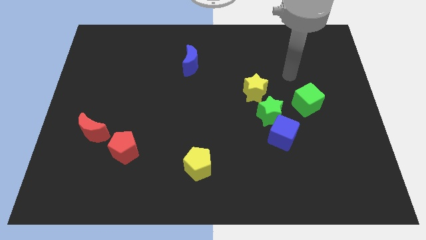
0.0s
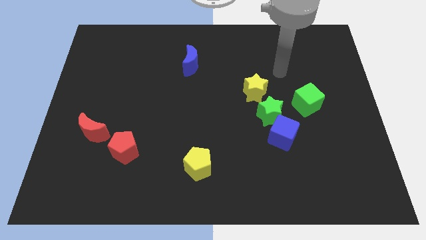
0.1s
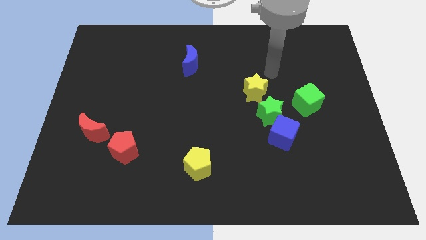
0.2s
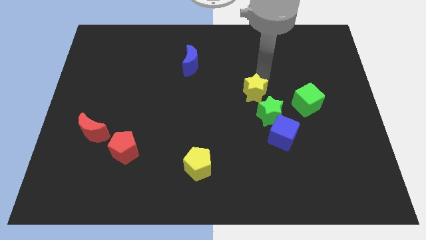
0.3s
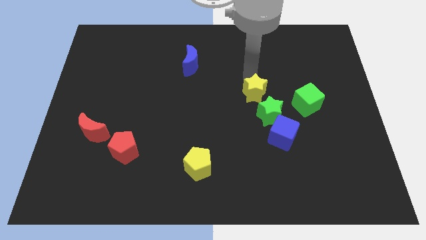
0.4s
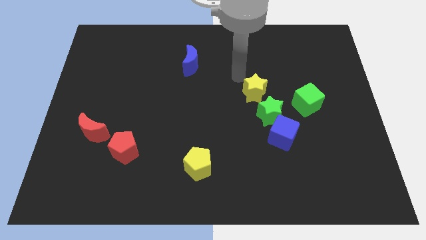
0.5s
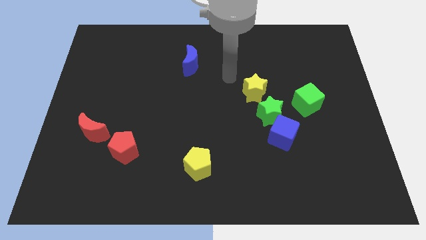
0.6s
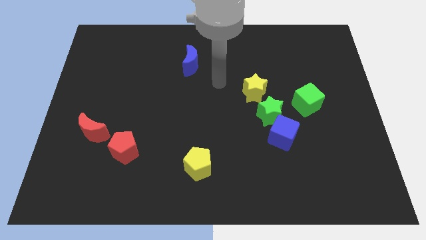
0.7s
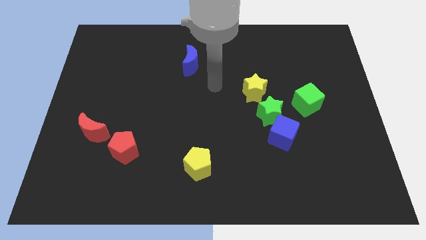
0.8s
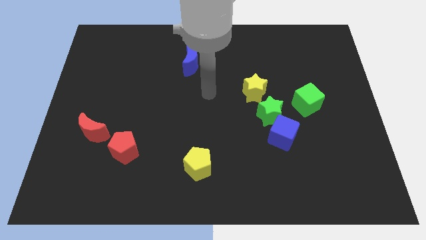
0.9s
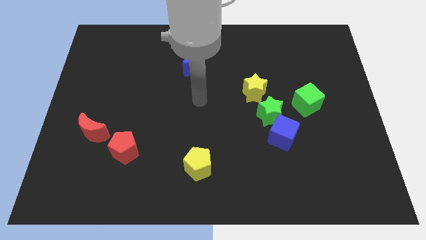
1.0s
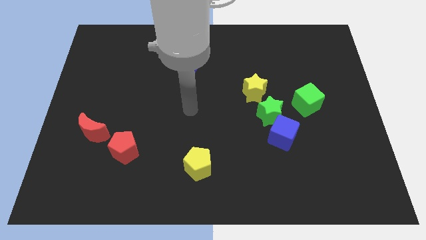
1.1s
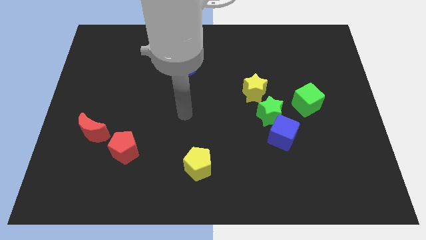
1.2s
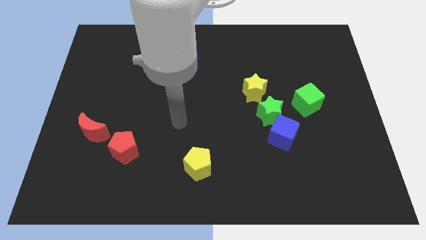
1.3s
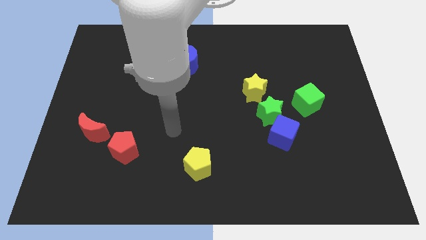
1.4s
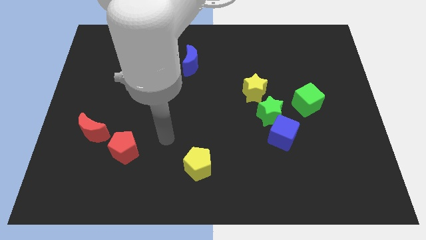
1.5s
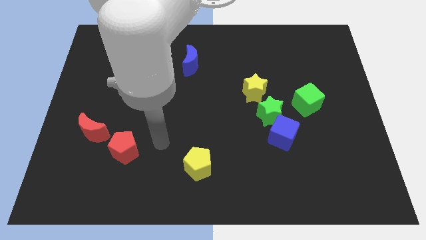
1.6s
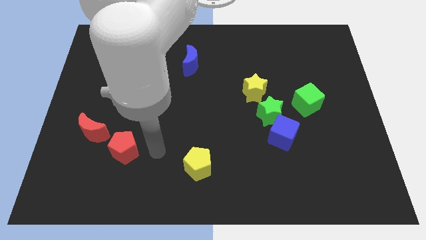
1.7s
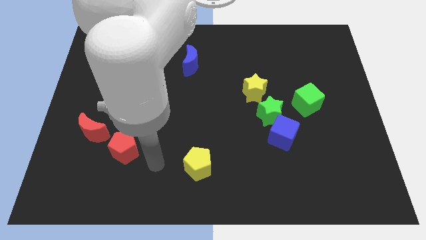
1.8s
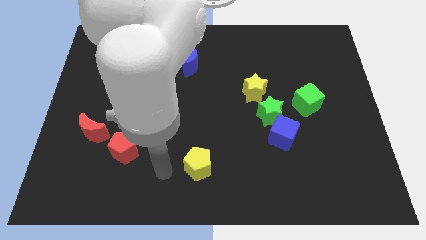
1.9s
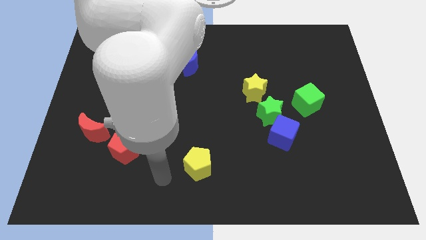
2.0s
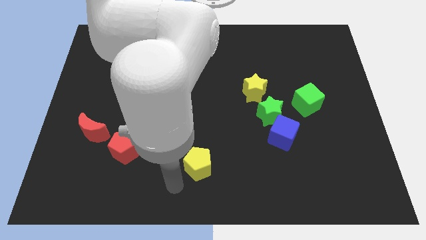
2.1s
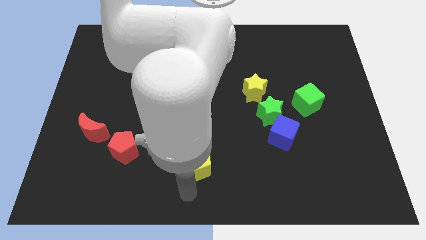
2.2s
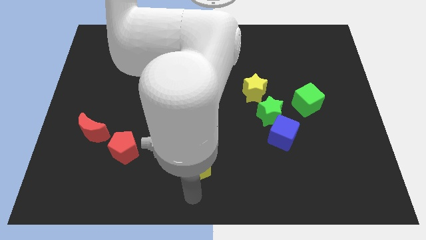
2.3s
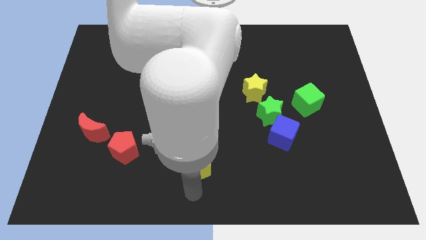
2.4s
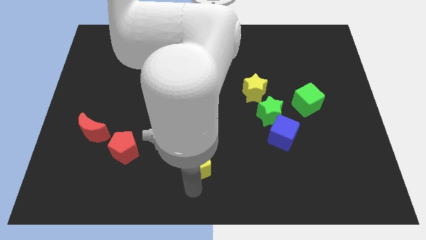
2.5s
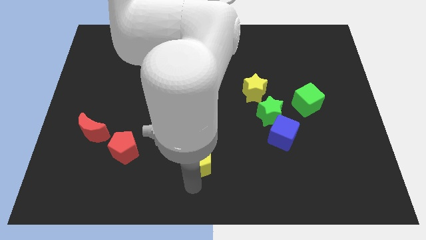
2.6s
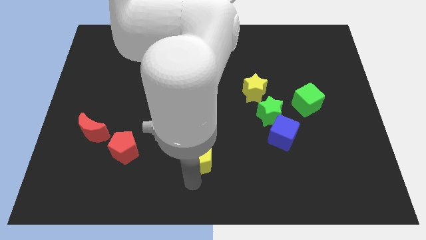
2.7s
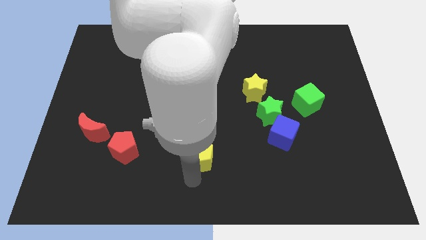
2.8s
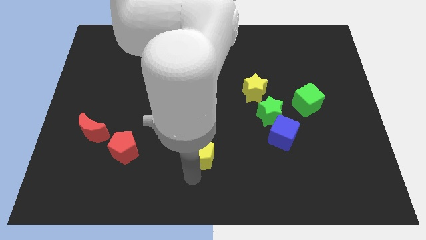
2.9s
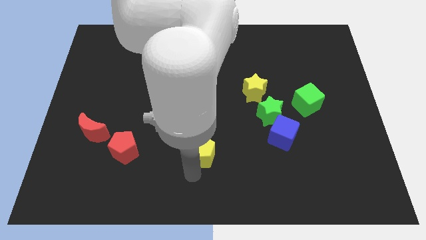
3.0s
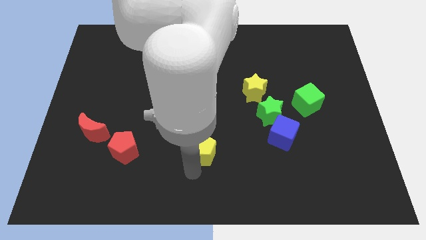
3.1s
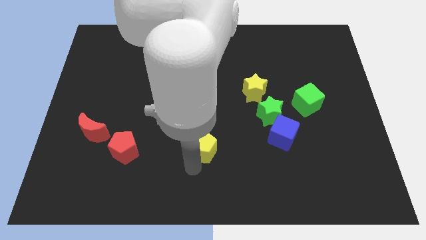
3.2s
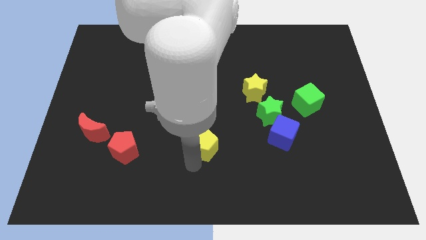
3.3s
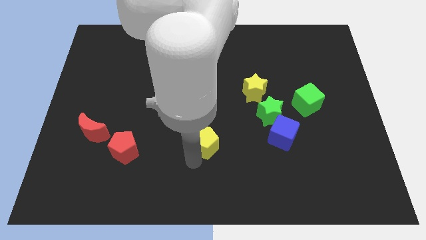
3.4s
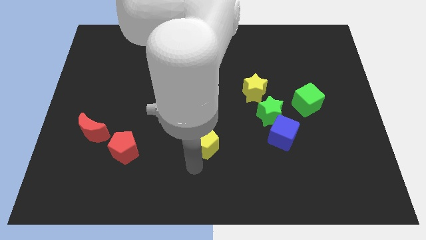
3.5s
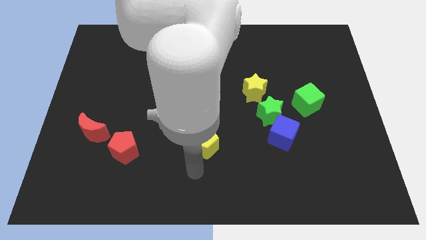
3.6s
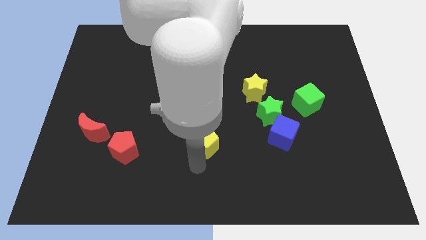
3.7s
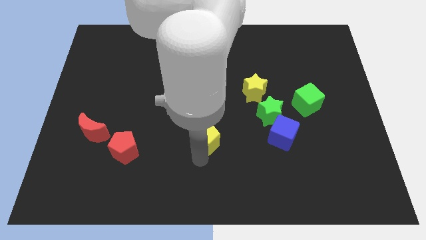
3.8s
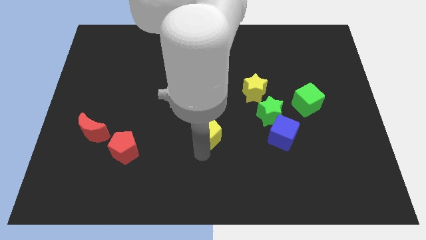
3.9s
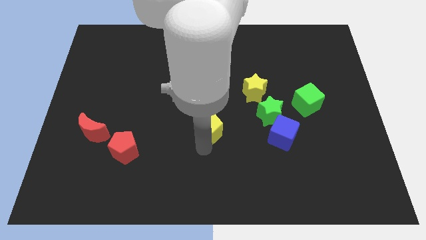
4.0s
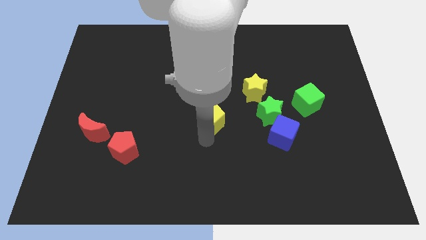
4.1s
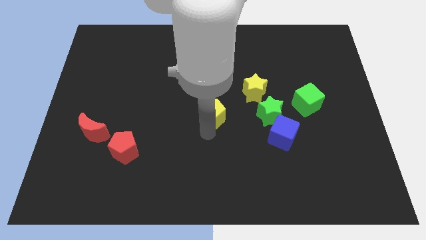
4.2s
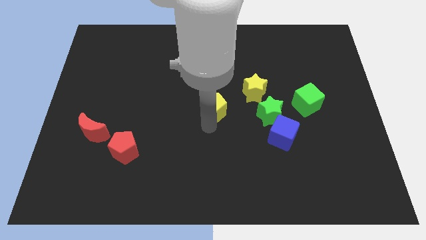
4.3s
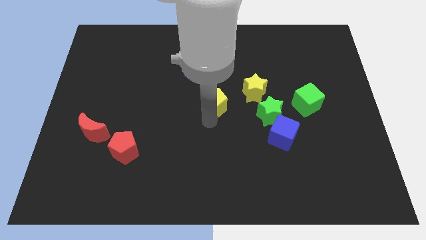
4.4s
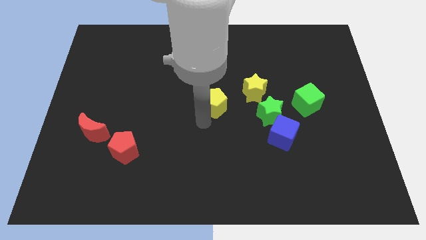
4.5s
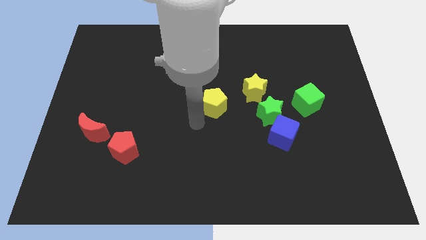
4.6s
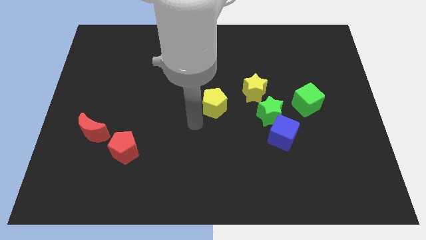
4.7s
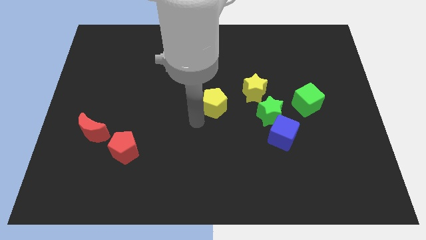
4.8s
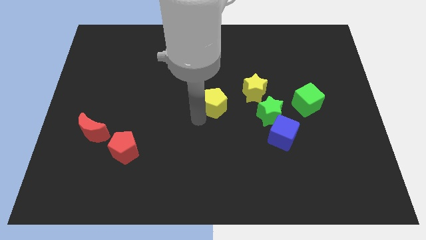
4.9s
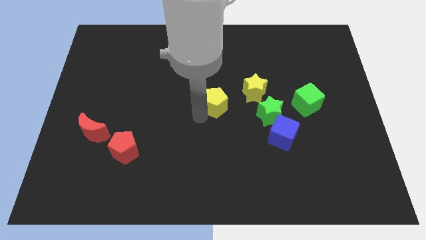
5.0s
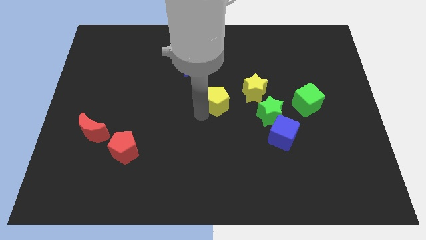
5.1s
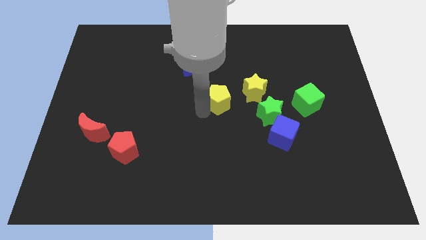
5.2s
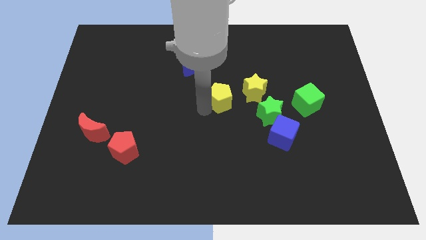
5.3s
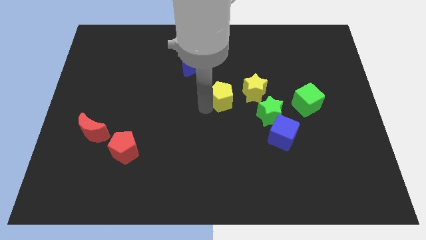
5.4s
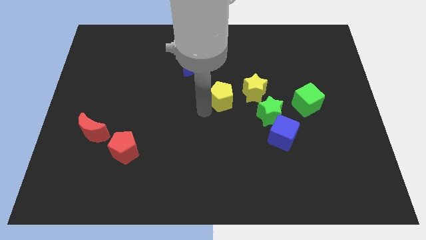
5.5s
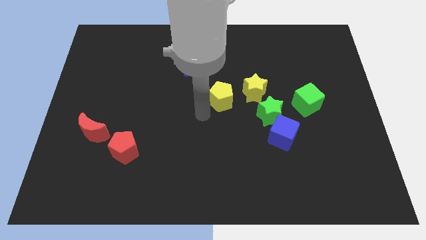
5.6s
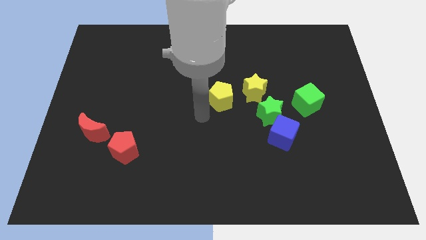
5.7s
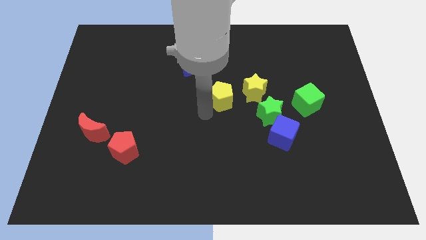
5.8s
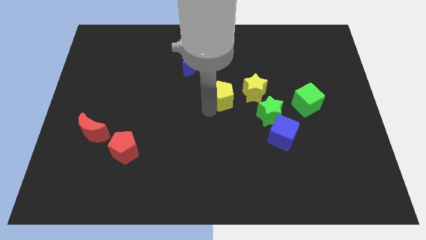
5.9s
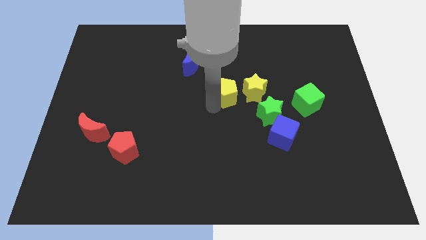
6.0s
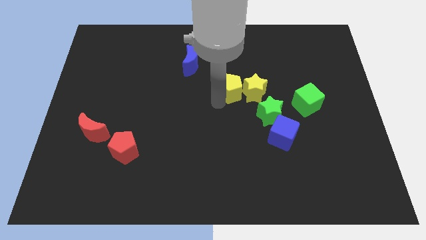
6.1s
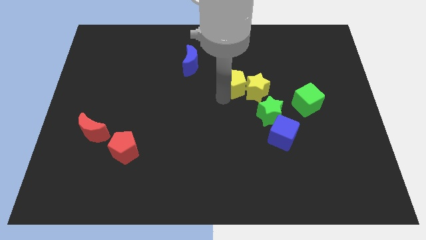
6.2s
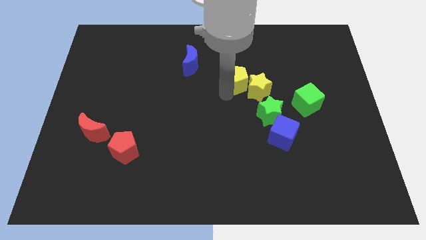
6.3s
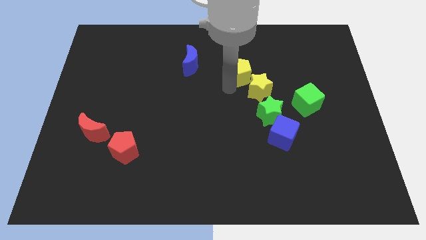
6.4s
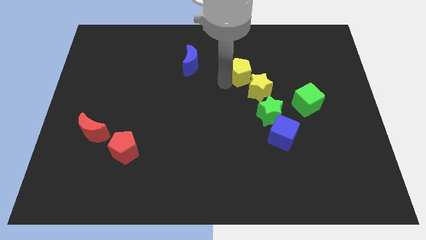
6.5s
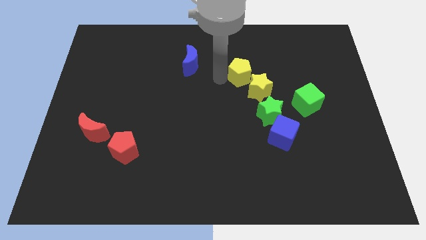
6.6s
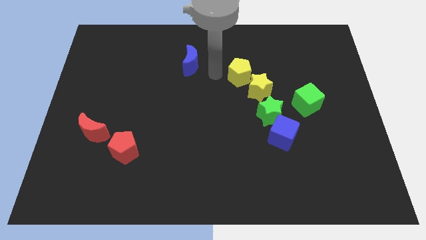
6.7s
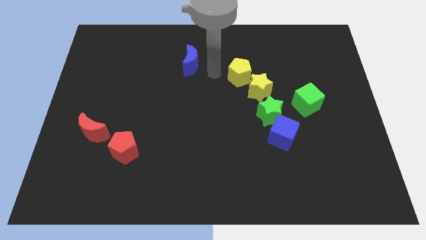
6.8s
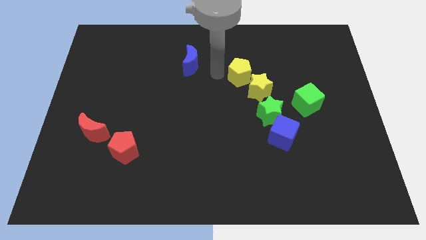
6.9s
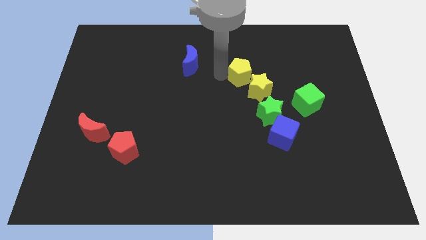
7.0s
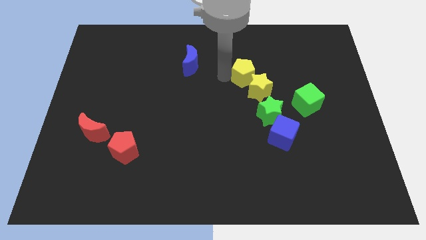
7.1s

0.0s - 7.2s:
push the yellow pentagon upwards and then to the right

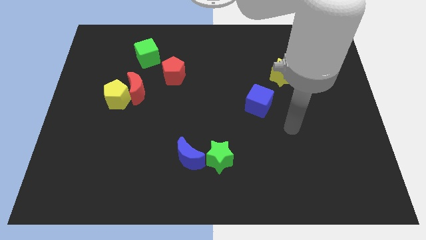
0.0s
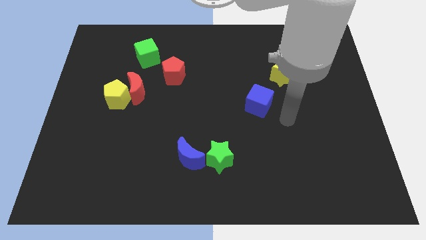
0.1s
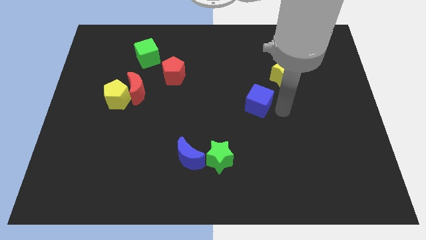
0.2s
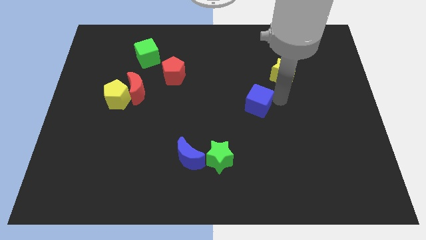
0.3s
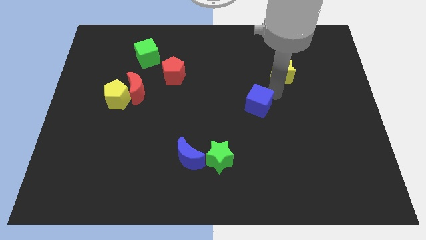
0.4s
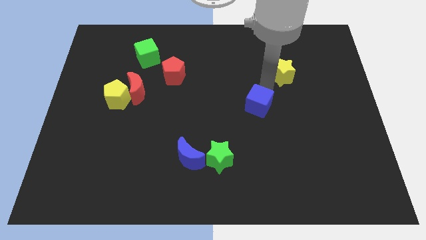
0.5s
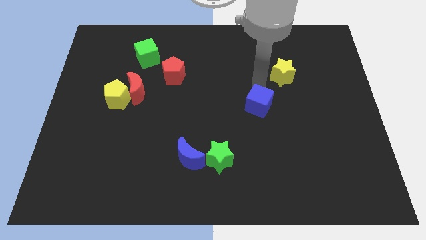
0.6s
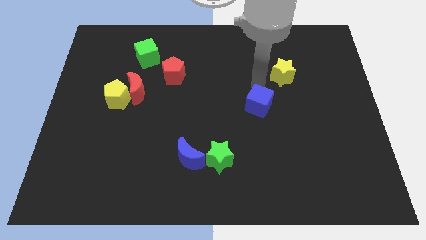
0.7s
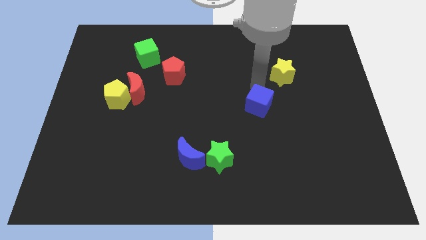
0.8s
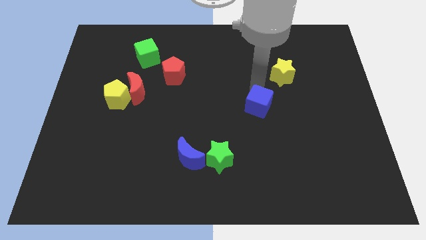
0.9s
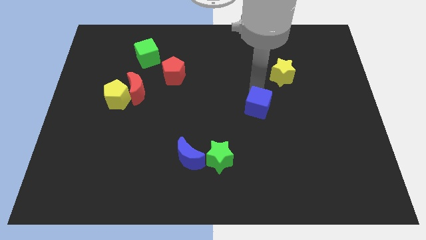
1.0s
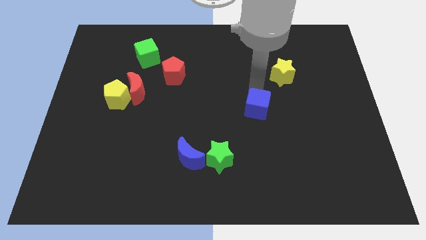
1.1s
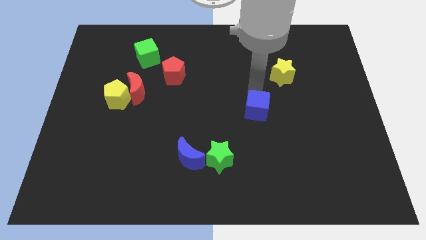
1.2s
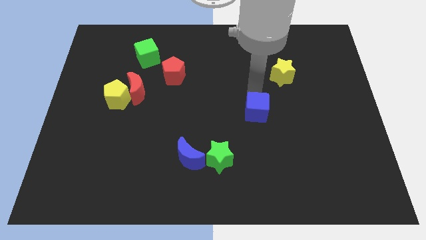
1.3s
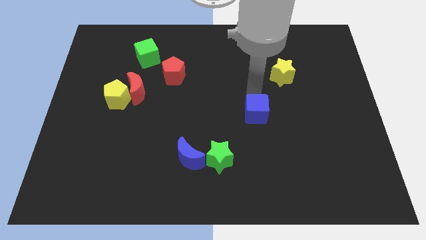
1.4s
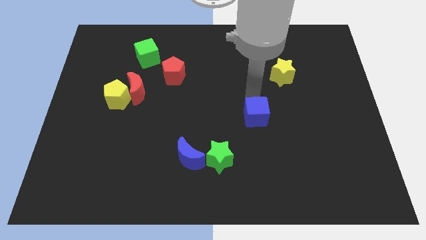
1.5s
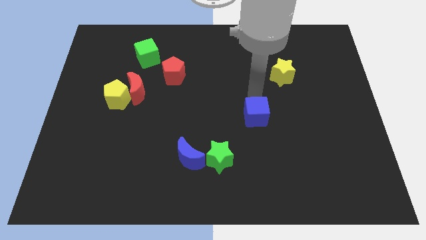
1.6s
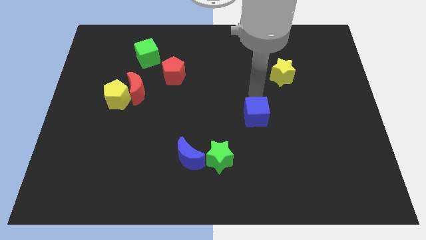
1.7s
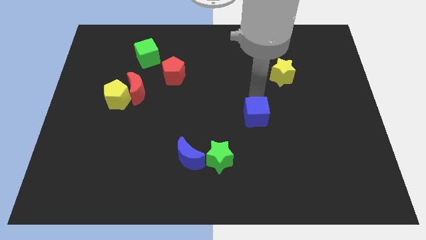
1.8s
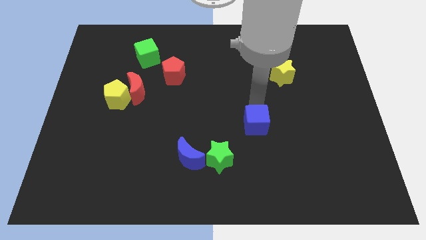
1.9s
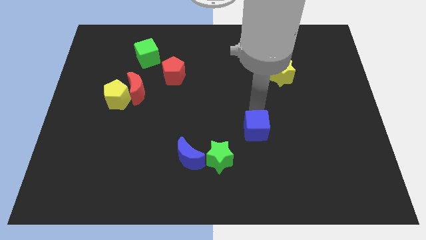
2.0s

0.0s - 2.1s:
move the blue cube slightly downwards
